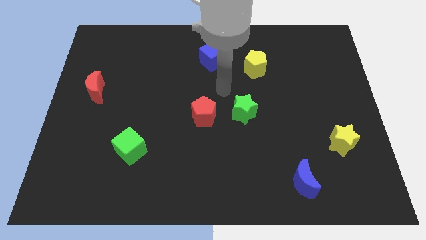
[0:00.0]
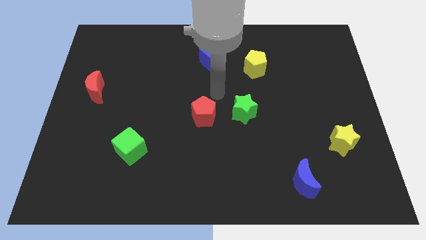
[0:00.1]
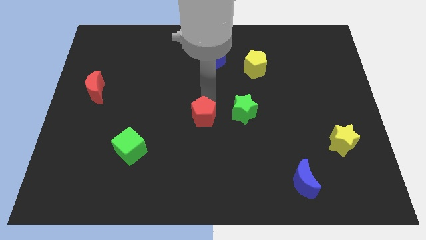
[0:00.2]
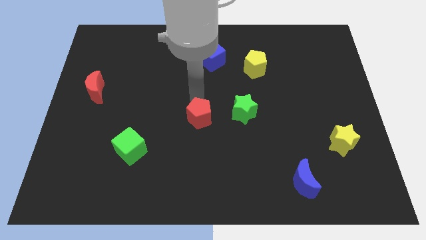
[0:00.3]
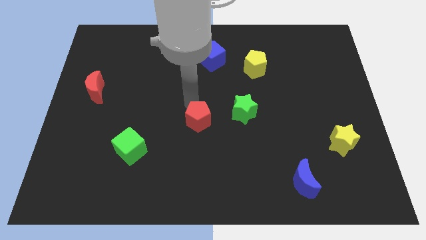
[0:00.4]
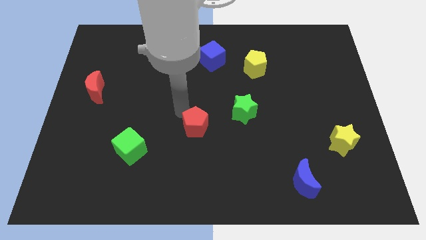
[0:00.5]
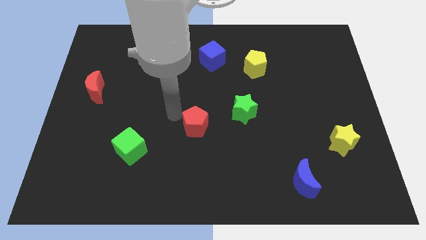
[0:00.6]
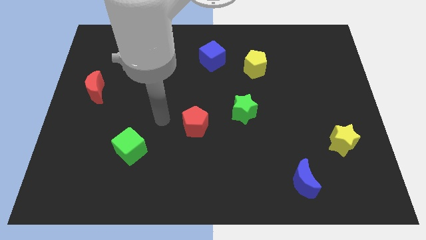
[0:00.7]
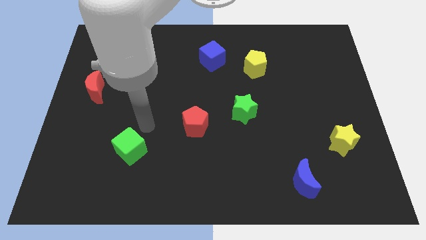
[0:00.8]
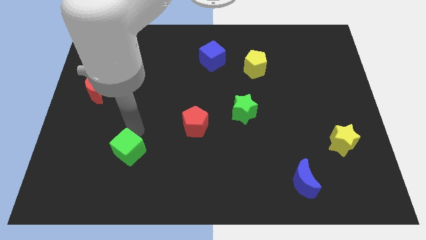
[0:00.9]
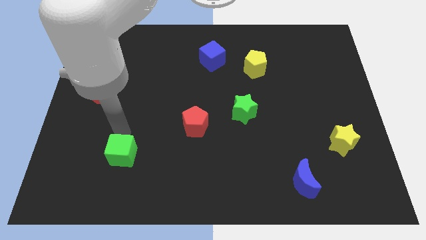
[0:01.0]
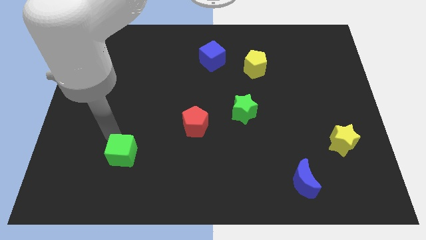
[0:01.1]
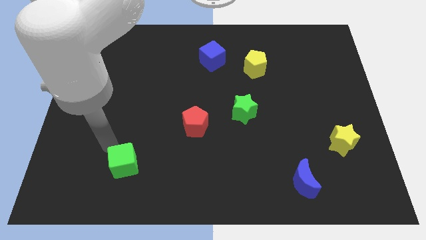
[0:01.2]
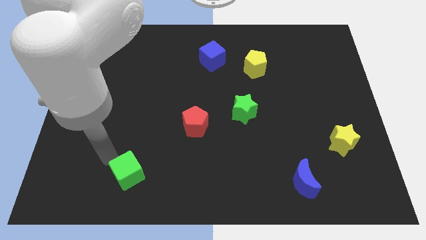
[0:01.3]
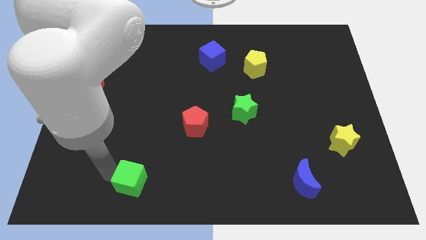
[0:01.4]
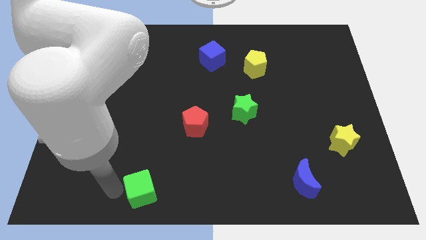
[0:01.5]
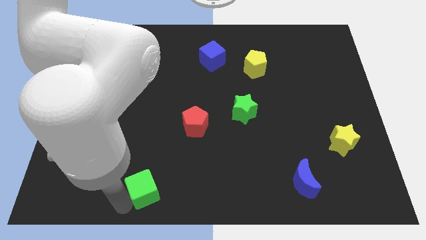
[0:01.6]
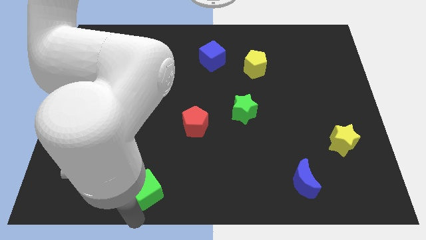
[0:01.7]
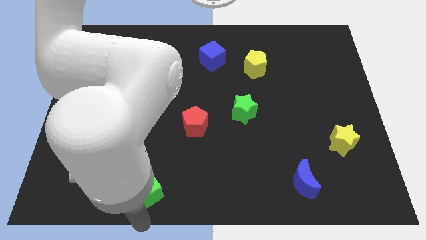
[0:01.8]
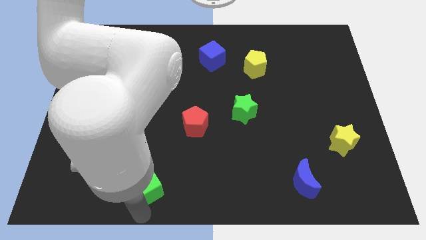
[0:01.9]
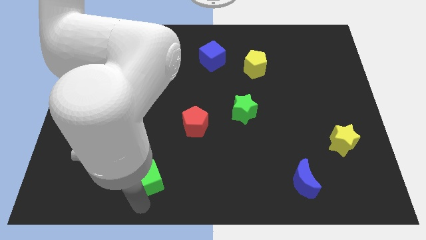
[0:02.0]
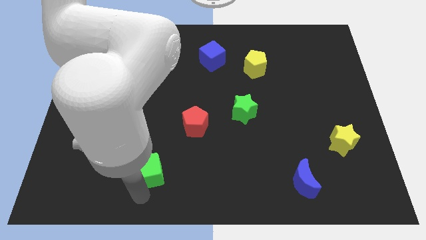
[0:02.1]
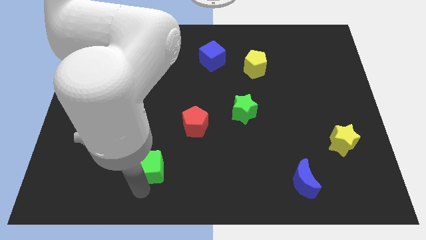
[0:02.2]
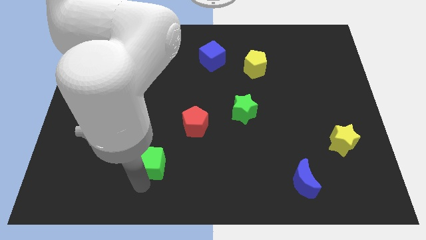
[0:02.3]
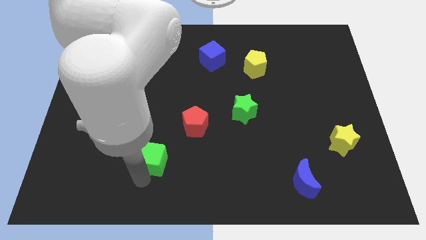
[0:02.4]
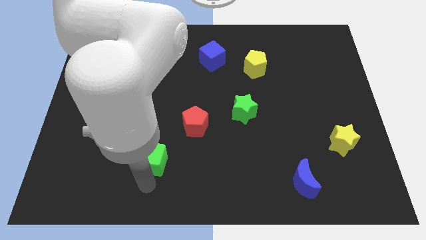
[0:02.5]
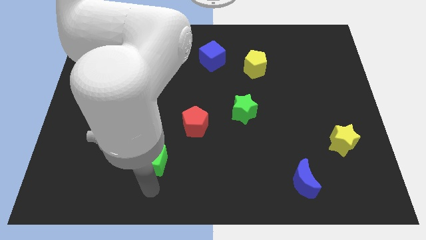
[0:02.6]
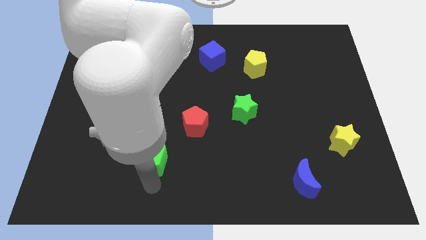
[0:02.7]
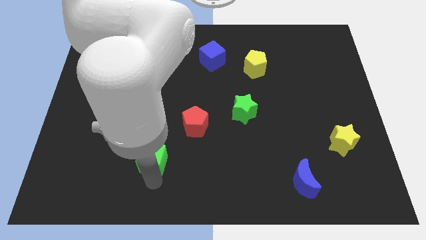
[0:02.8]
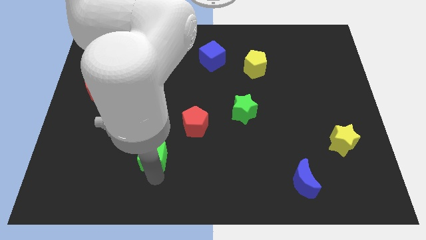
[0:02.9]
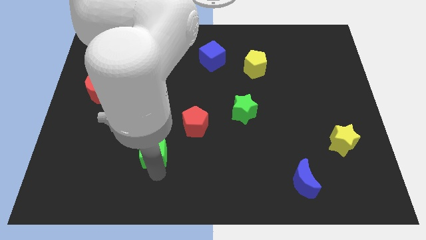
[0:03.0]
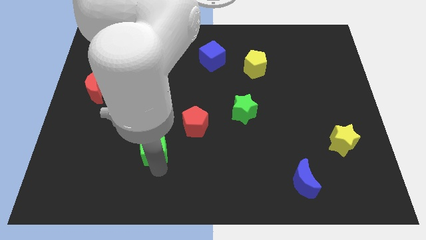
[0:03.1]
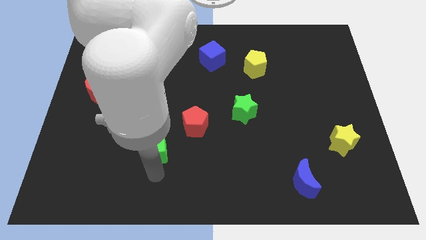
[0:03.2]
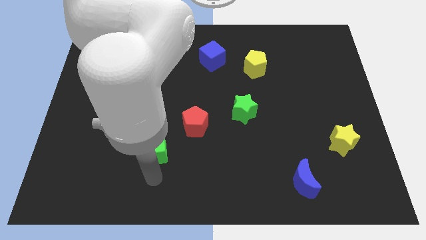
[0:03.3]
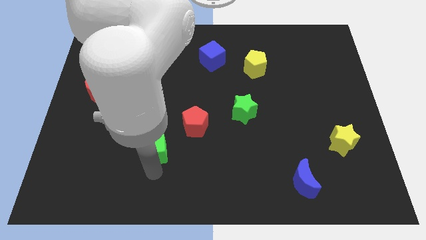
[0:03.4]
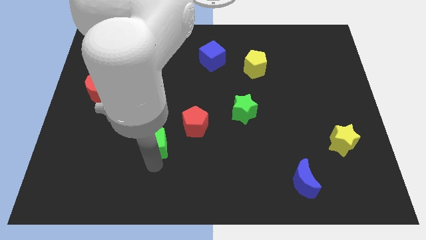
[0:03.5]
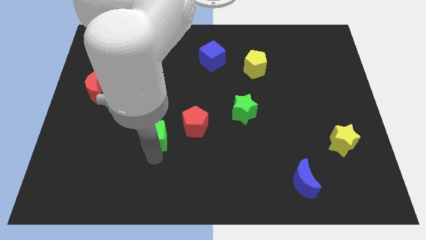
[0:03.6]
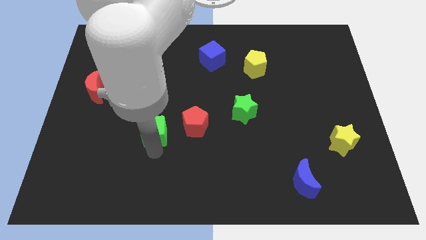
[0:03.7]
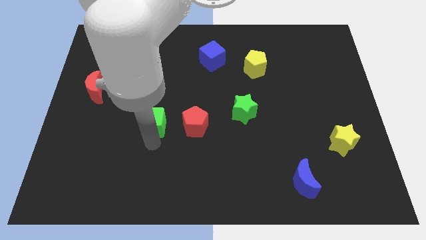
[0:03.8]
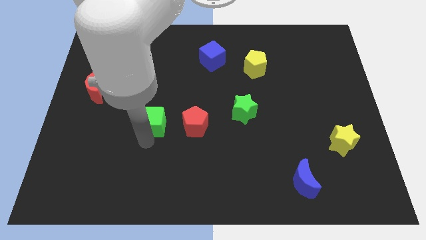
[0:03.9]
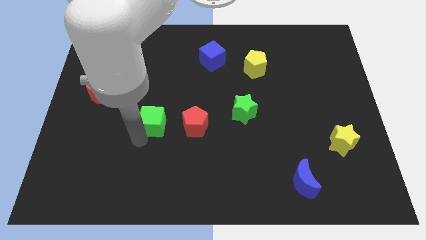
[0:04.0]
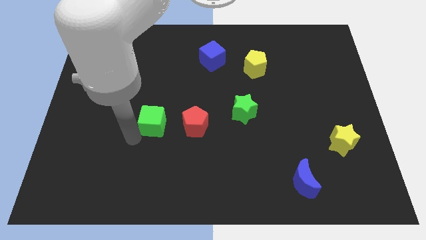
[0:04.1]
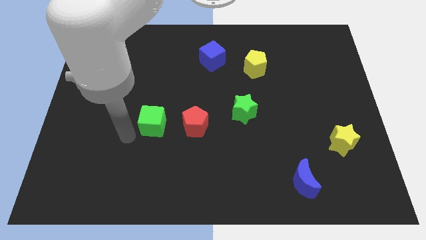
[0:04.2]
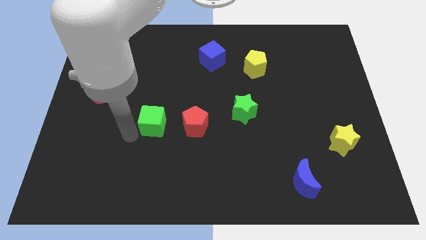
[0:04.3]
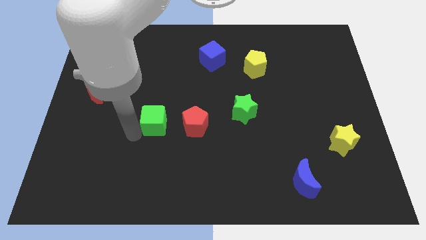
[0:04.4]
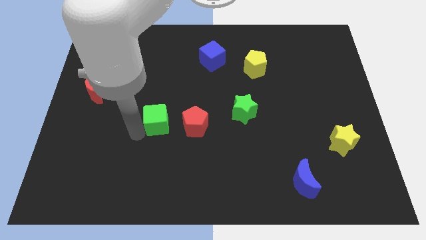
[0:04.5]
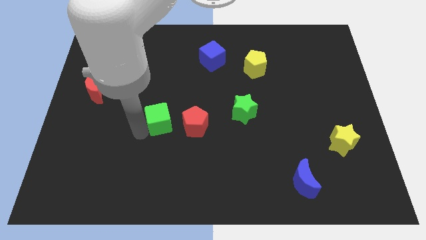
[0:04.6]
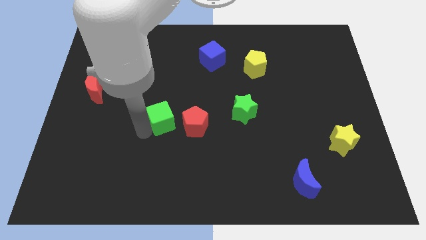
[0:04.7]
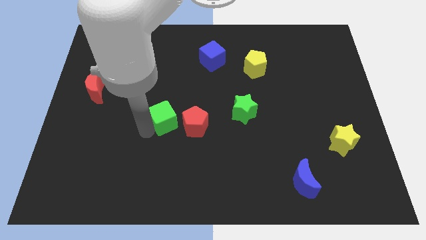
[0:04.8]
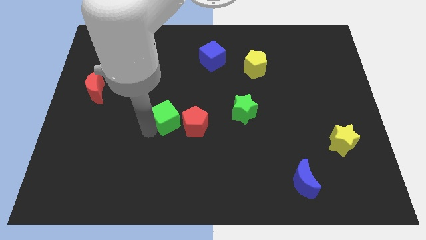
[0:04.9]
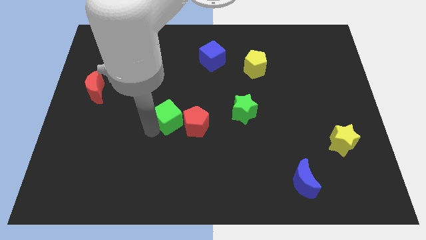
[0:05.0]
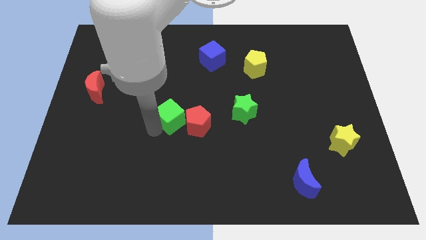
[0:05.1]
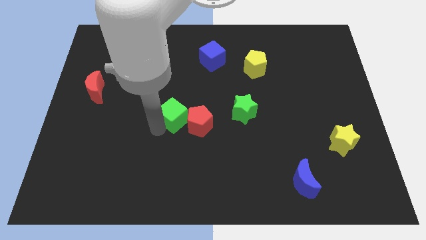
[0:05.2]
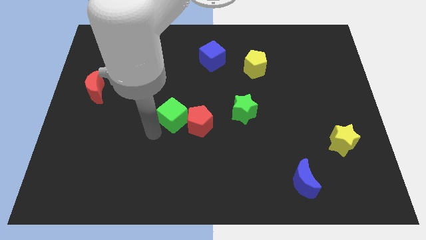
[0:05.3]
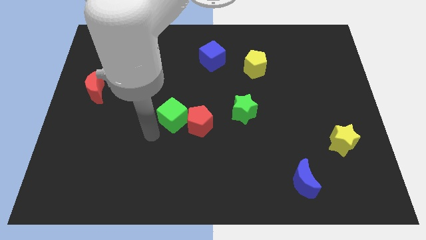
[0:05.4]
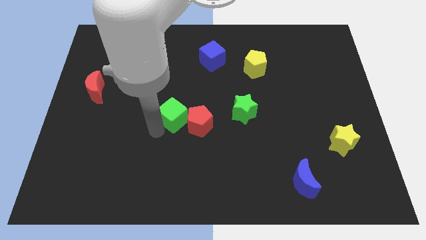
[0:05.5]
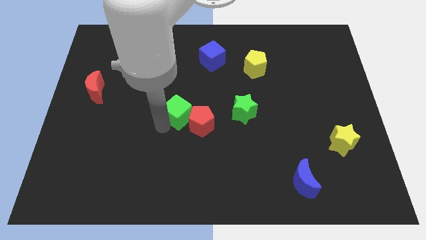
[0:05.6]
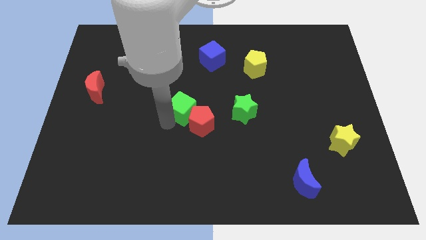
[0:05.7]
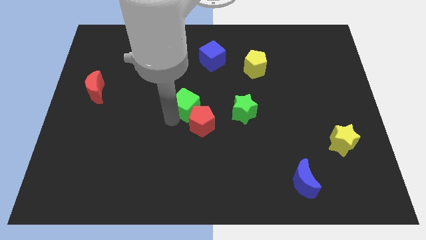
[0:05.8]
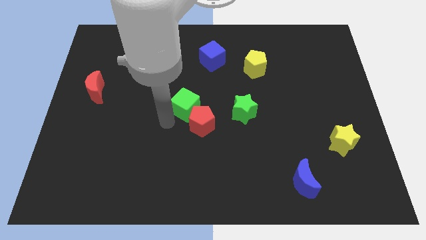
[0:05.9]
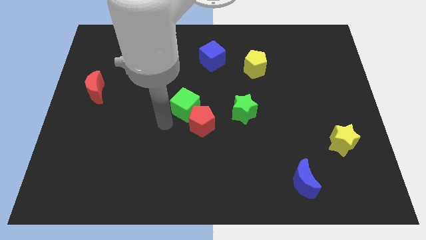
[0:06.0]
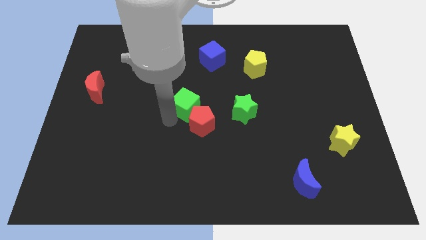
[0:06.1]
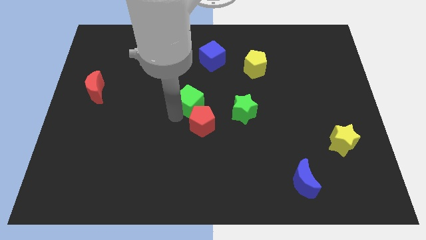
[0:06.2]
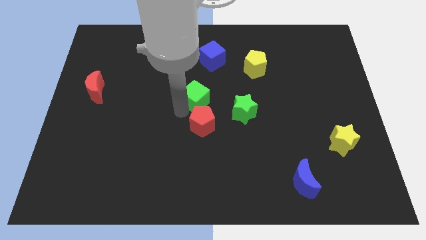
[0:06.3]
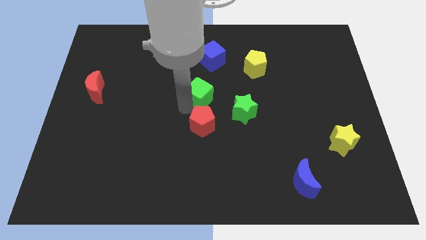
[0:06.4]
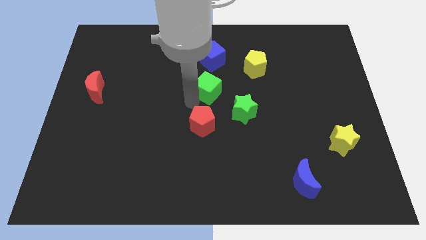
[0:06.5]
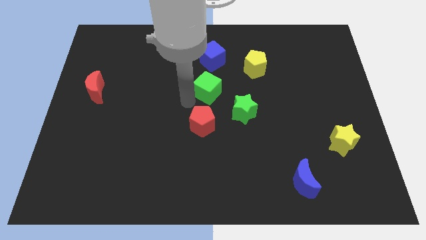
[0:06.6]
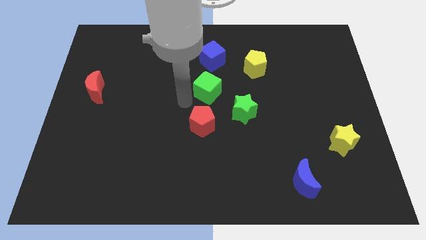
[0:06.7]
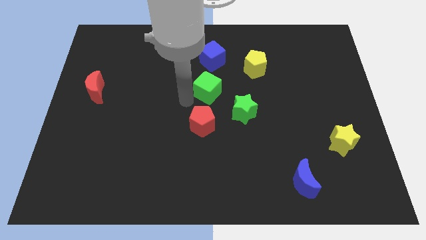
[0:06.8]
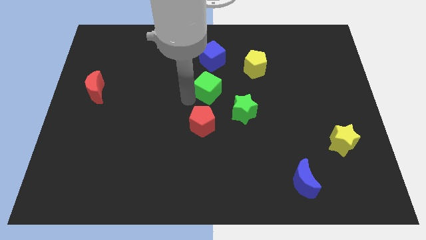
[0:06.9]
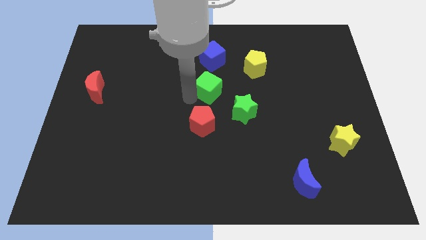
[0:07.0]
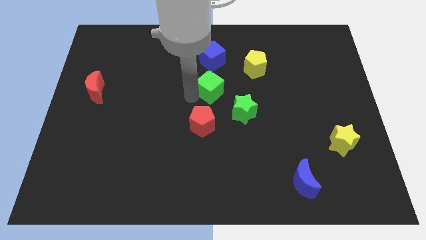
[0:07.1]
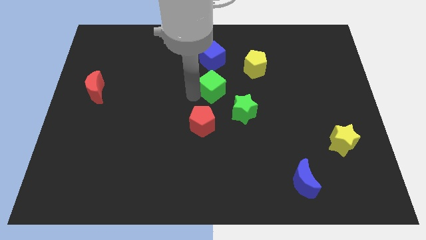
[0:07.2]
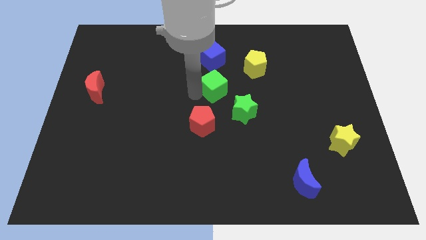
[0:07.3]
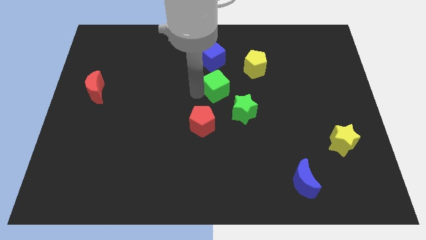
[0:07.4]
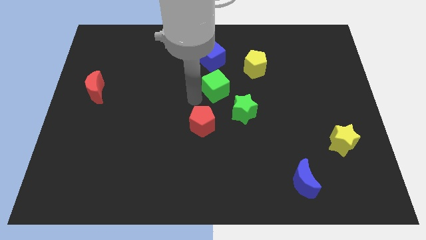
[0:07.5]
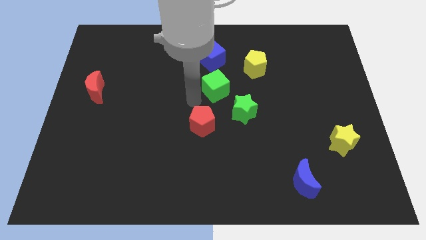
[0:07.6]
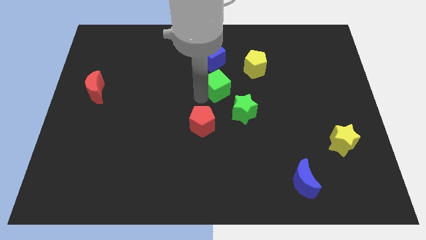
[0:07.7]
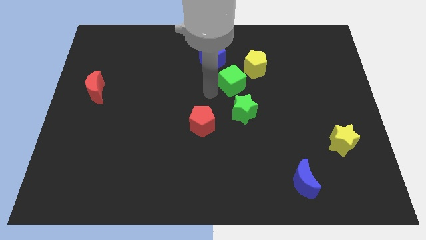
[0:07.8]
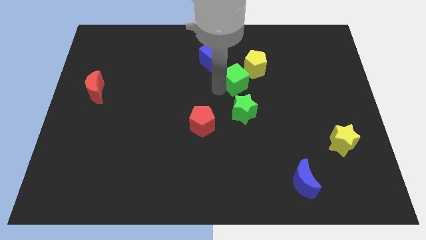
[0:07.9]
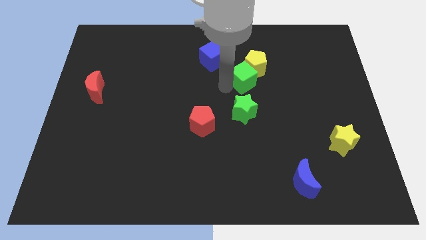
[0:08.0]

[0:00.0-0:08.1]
push the green cube close to the yellow pentagon
